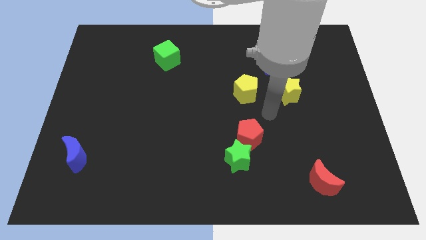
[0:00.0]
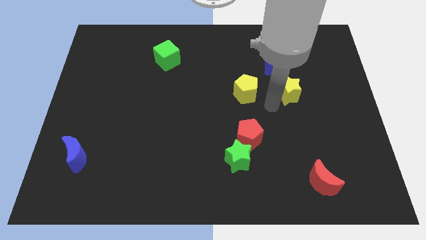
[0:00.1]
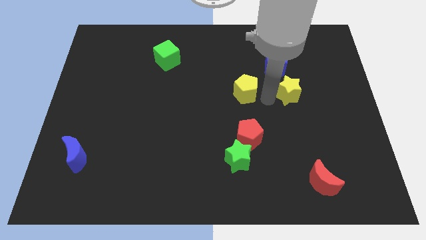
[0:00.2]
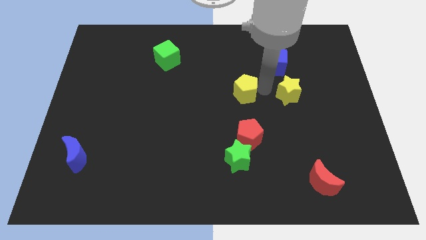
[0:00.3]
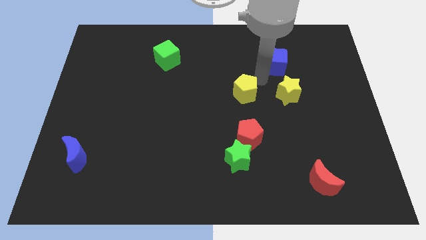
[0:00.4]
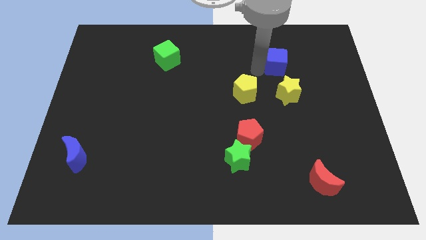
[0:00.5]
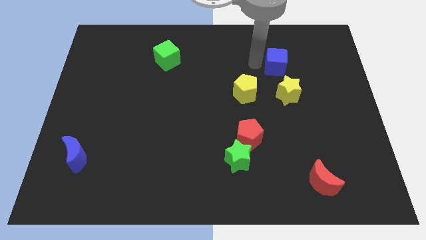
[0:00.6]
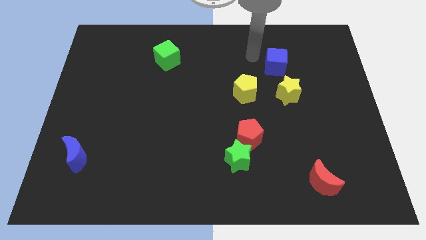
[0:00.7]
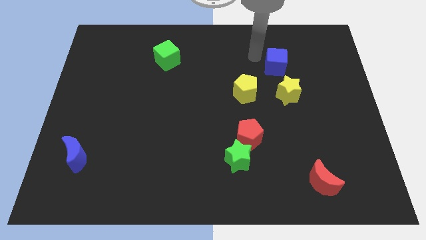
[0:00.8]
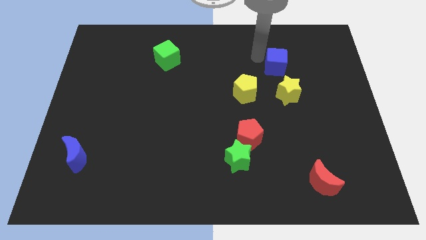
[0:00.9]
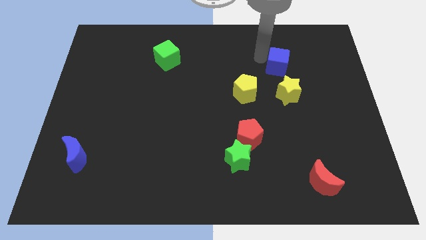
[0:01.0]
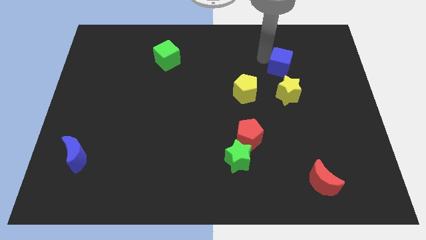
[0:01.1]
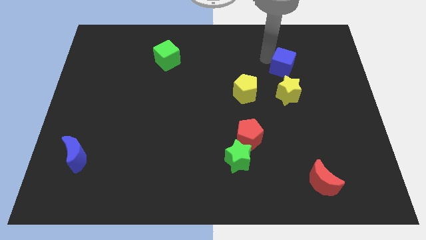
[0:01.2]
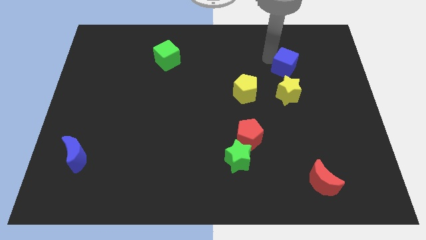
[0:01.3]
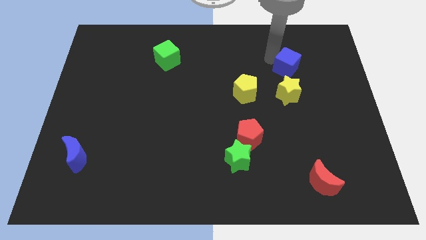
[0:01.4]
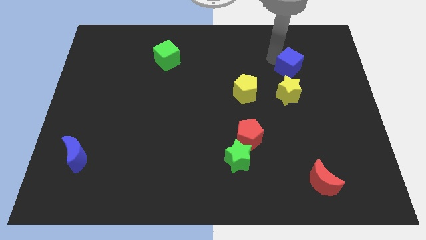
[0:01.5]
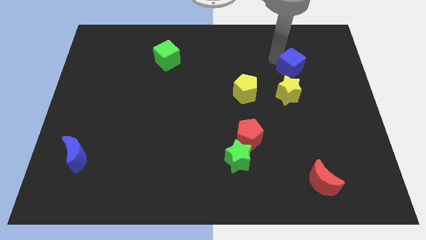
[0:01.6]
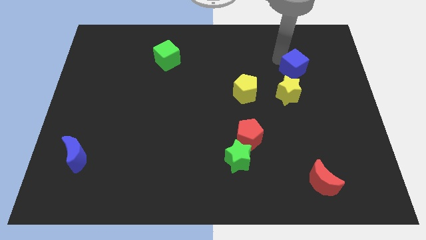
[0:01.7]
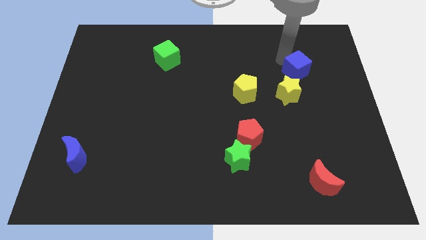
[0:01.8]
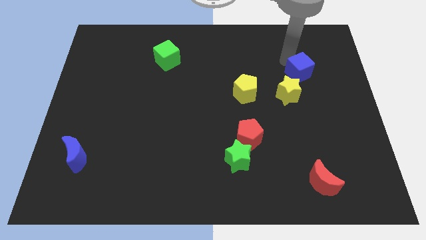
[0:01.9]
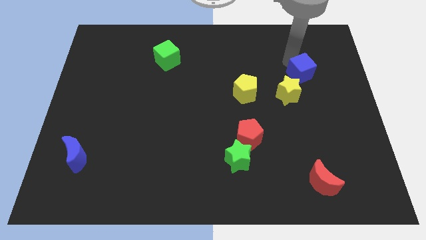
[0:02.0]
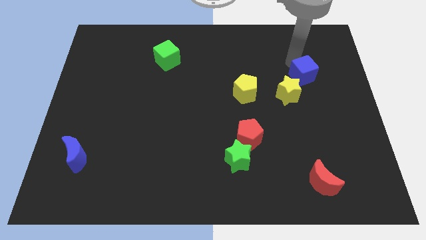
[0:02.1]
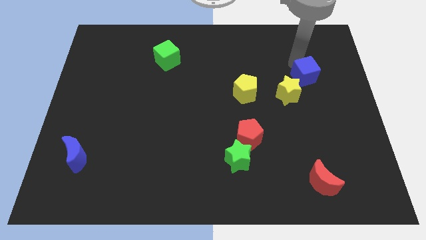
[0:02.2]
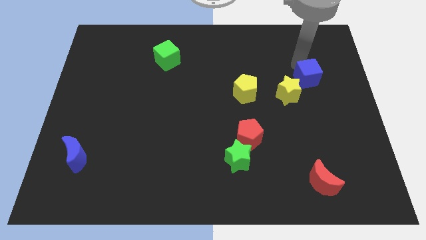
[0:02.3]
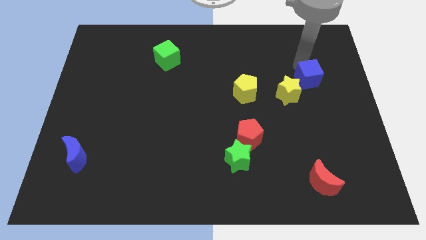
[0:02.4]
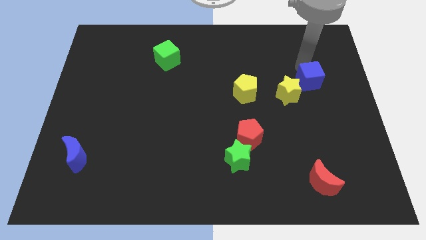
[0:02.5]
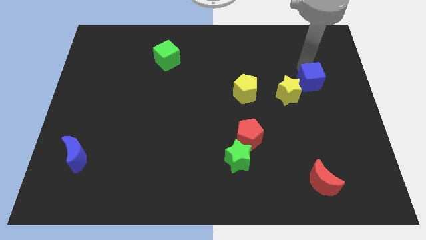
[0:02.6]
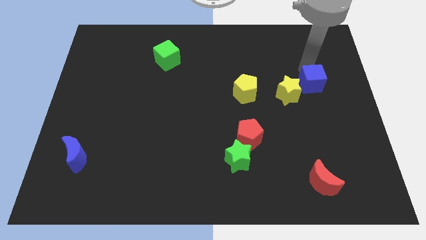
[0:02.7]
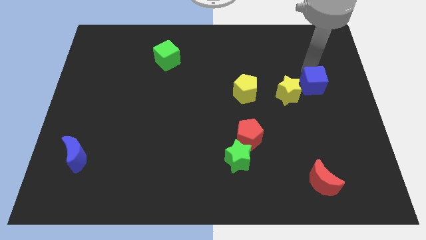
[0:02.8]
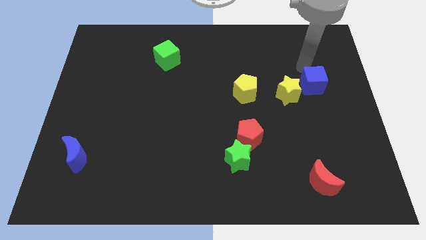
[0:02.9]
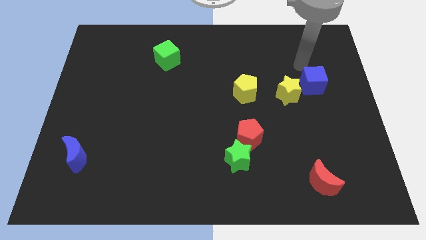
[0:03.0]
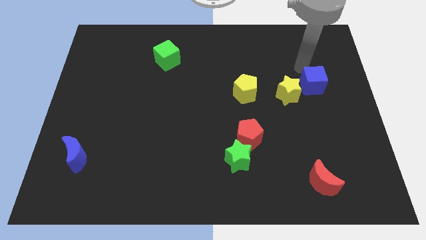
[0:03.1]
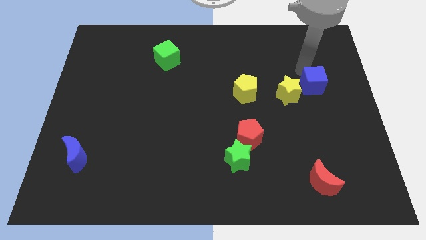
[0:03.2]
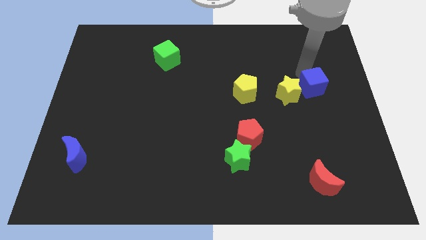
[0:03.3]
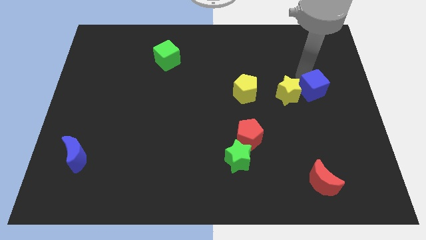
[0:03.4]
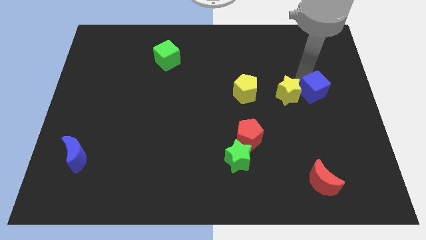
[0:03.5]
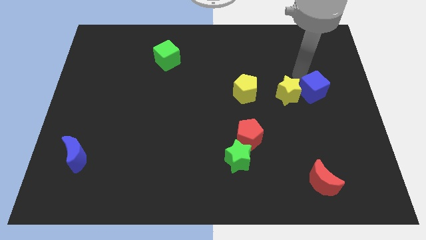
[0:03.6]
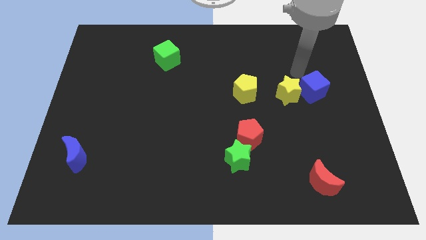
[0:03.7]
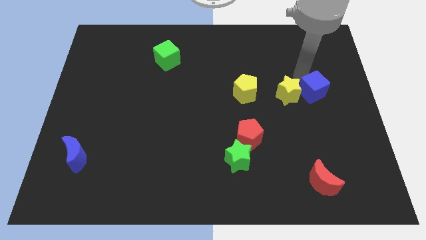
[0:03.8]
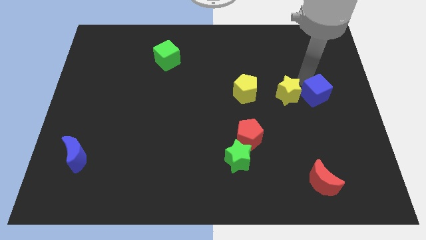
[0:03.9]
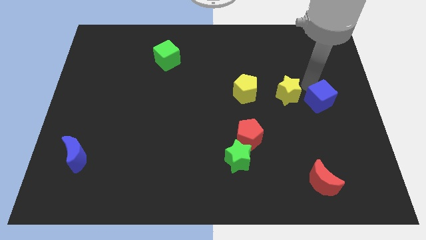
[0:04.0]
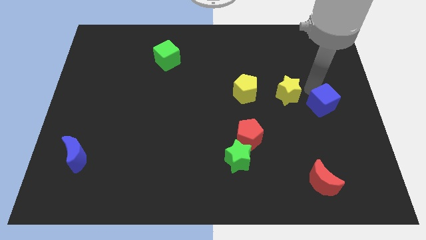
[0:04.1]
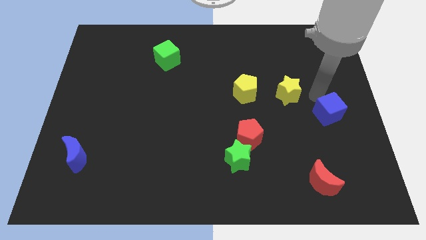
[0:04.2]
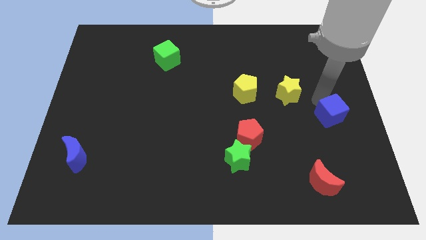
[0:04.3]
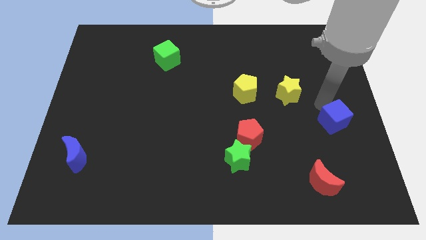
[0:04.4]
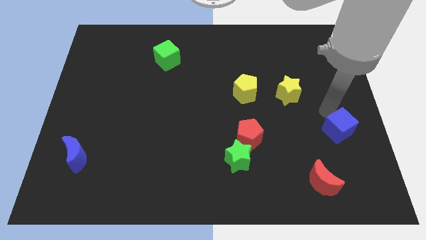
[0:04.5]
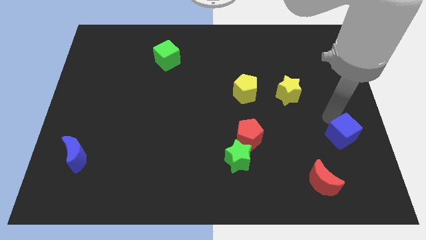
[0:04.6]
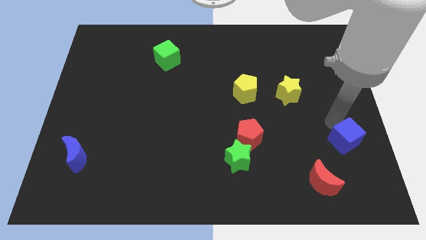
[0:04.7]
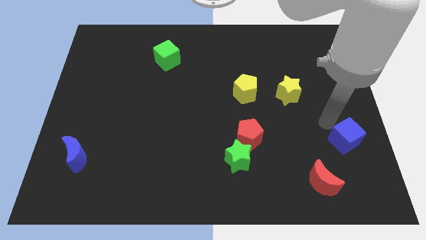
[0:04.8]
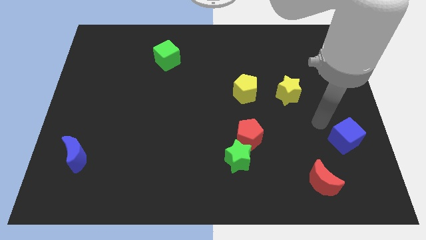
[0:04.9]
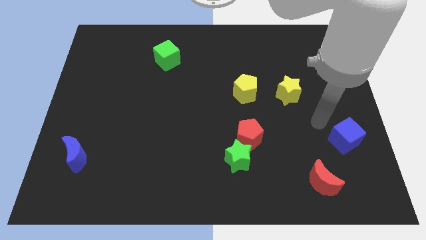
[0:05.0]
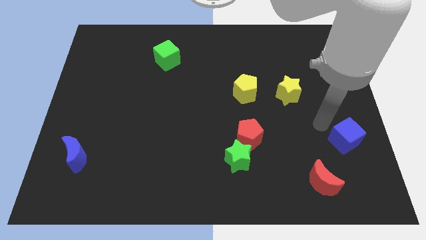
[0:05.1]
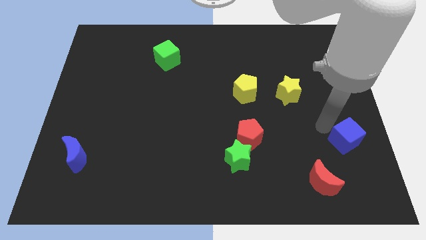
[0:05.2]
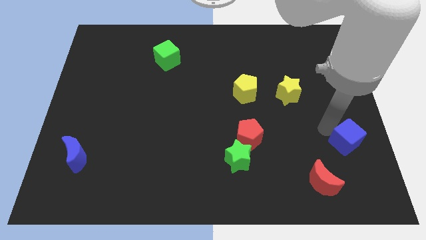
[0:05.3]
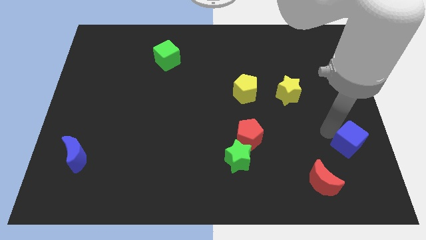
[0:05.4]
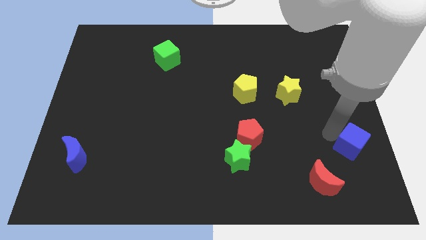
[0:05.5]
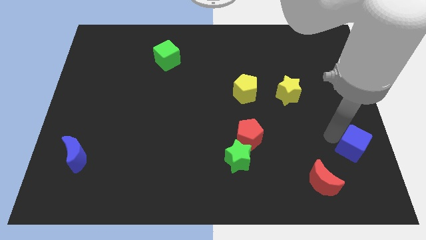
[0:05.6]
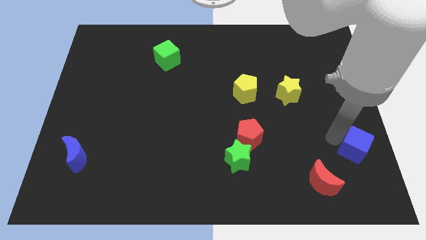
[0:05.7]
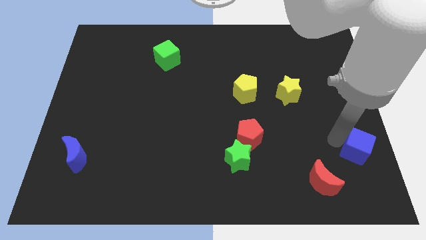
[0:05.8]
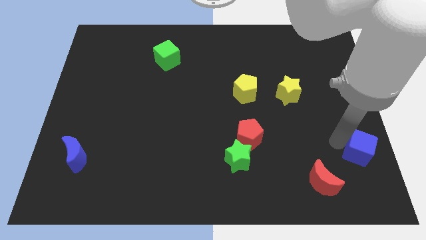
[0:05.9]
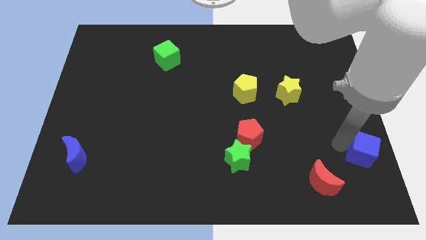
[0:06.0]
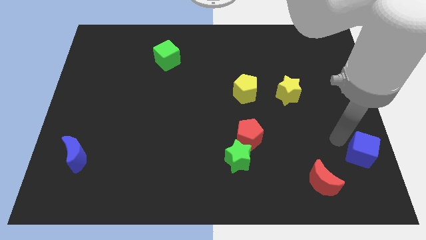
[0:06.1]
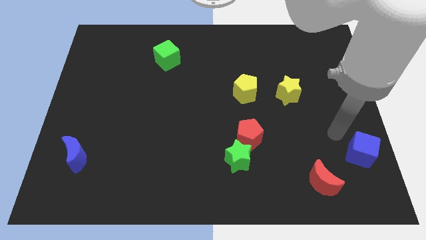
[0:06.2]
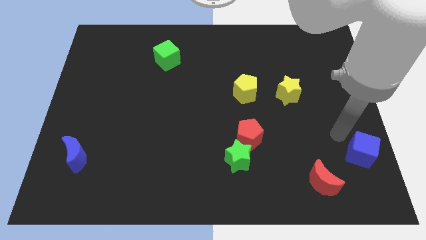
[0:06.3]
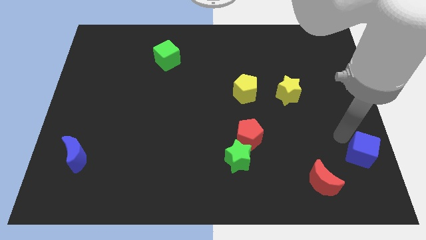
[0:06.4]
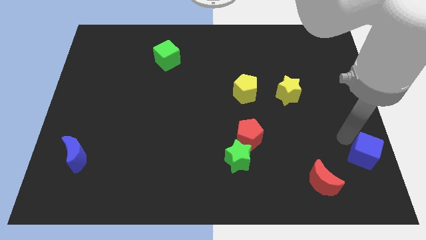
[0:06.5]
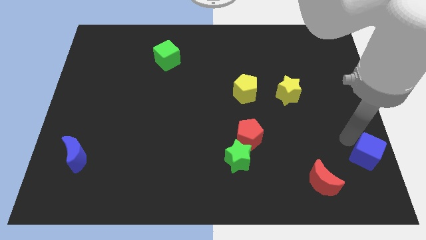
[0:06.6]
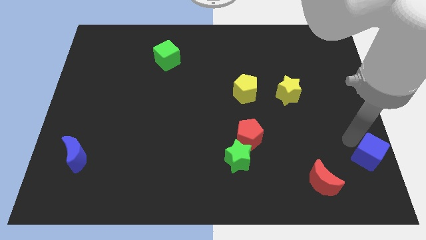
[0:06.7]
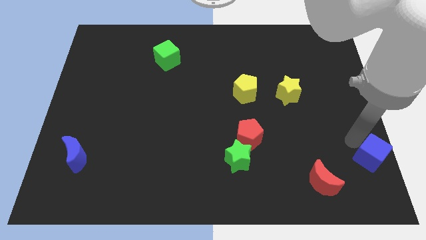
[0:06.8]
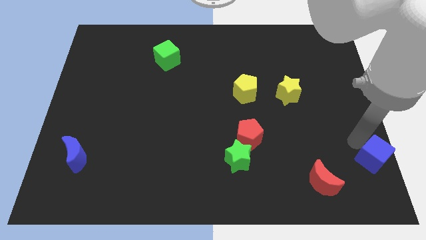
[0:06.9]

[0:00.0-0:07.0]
slide the blue cube to the bottom right of the board

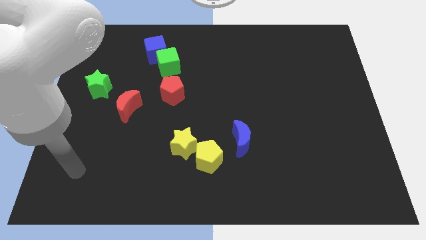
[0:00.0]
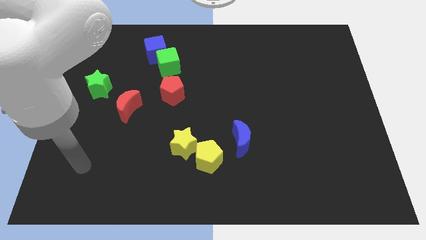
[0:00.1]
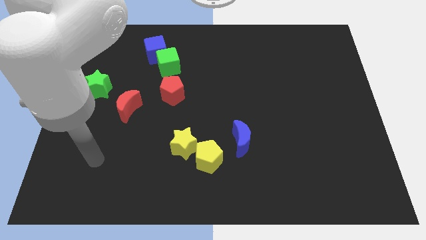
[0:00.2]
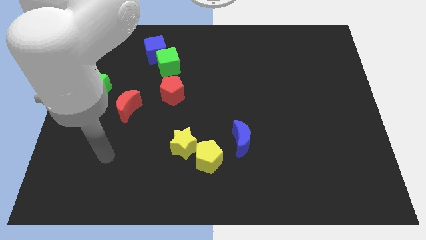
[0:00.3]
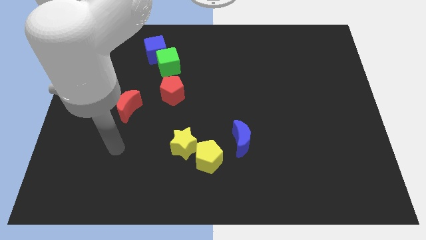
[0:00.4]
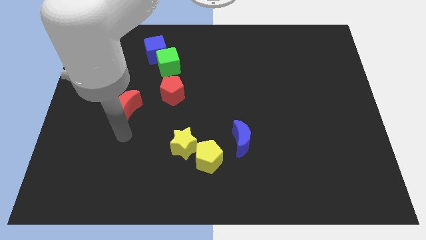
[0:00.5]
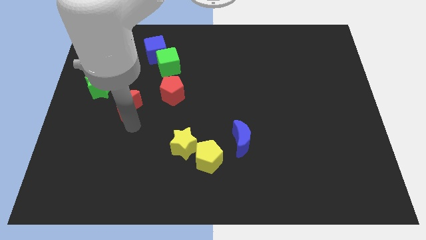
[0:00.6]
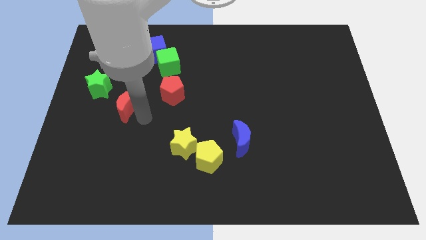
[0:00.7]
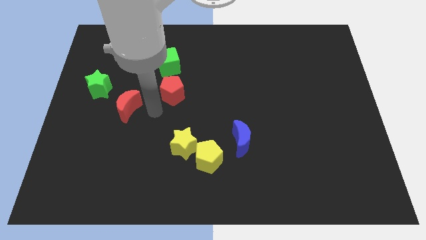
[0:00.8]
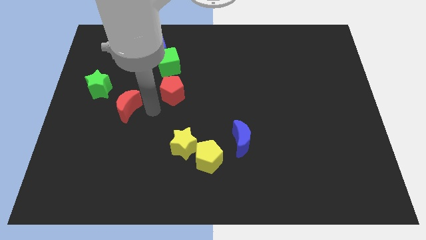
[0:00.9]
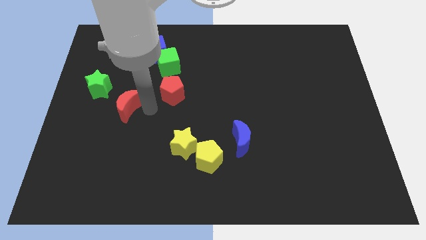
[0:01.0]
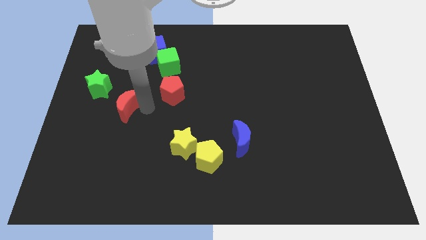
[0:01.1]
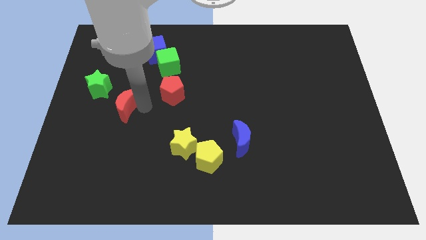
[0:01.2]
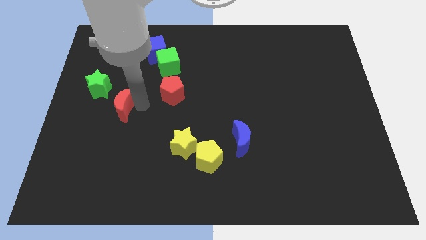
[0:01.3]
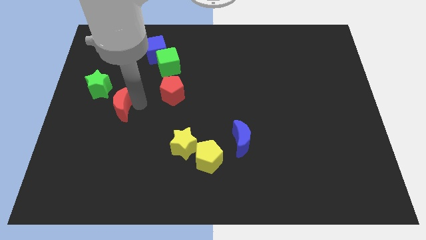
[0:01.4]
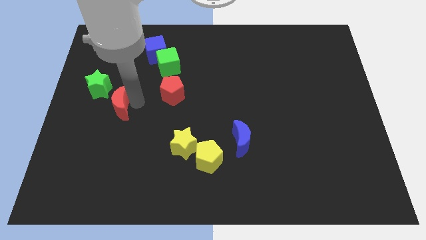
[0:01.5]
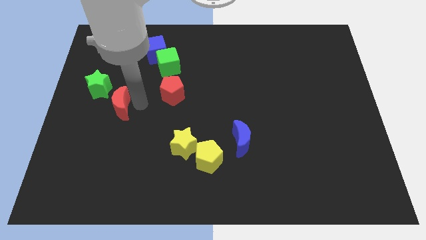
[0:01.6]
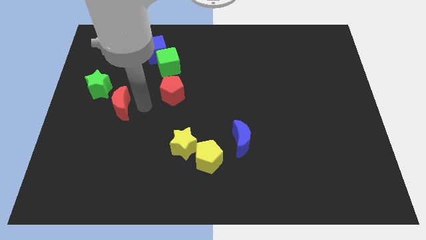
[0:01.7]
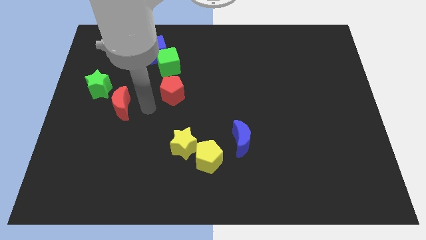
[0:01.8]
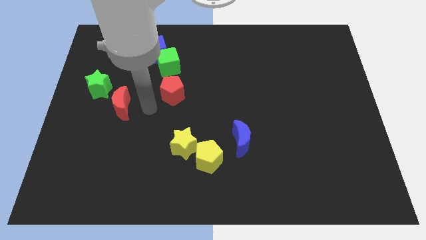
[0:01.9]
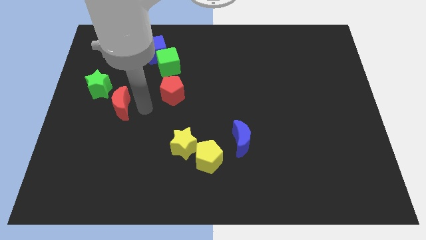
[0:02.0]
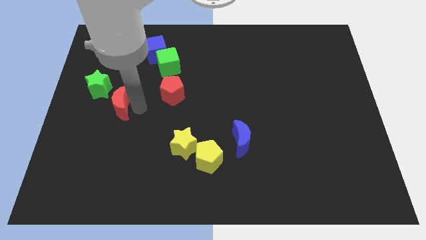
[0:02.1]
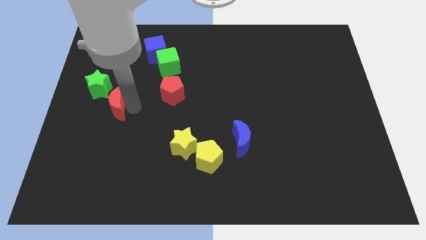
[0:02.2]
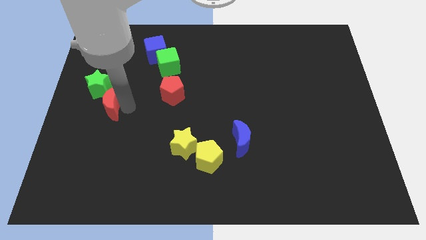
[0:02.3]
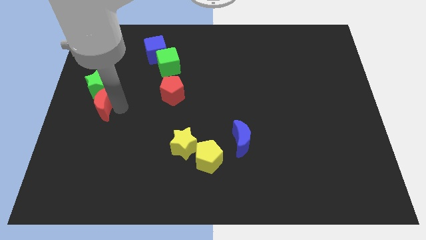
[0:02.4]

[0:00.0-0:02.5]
move the red moon to the left side of the board
